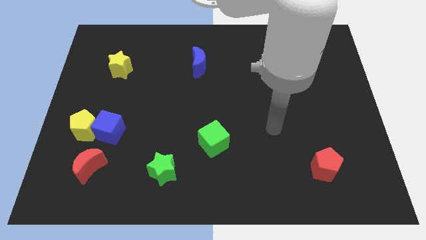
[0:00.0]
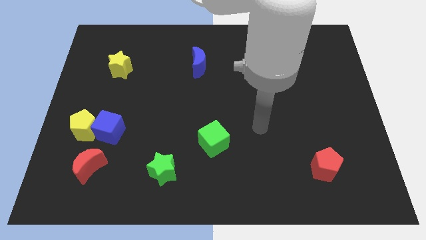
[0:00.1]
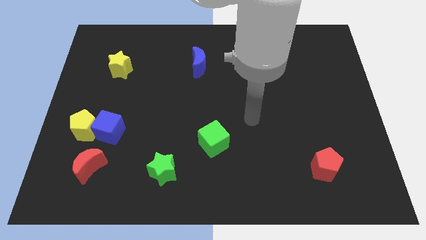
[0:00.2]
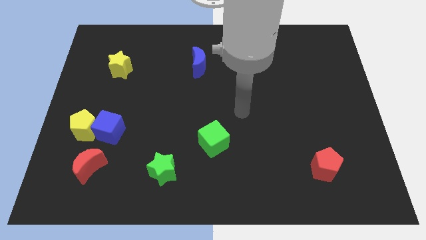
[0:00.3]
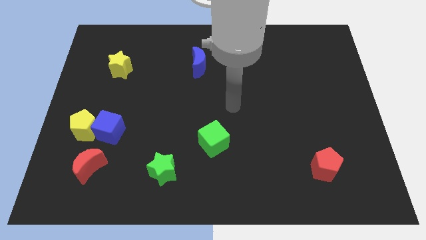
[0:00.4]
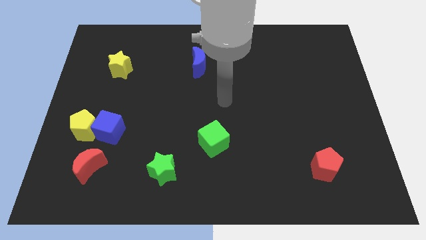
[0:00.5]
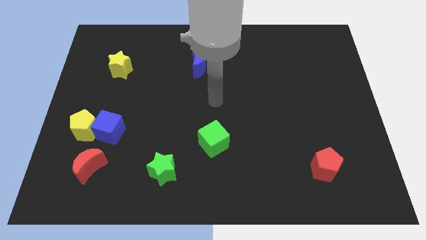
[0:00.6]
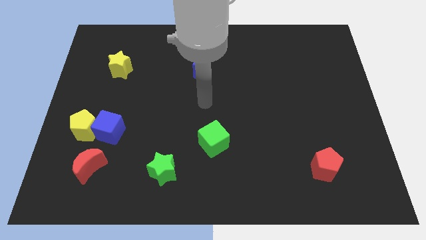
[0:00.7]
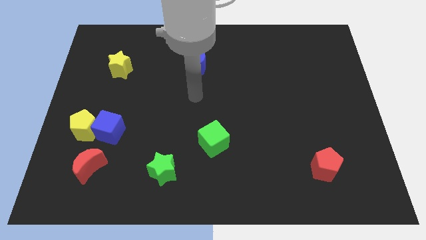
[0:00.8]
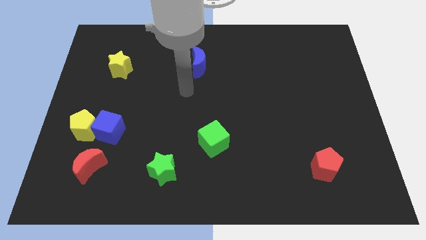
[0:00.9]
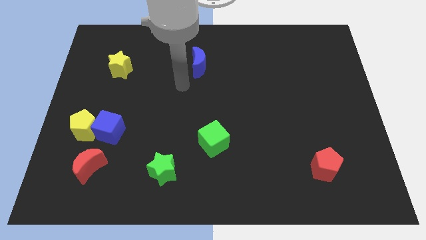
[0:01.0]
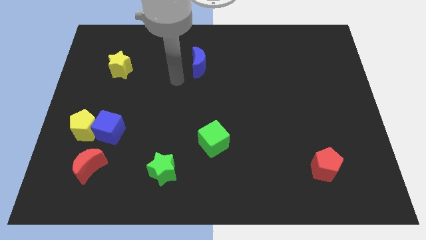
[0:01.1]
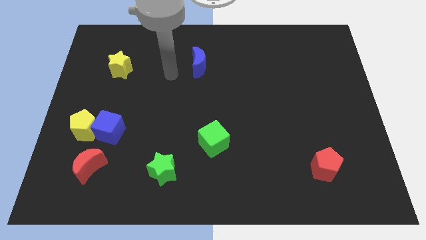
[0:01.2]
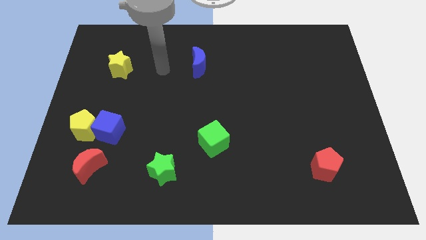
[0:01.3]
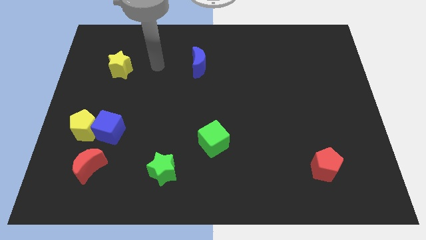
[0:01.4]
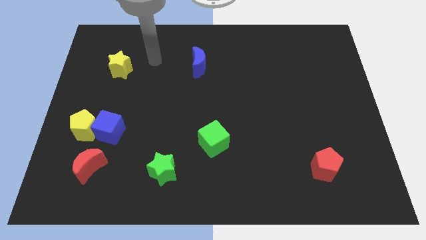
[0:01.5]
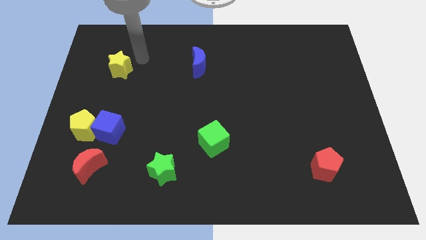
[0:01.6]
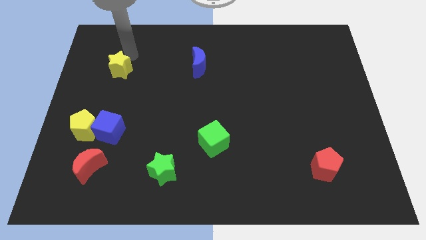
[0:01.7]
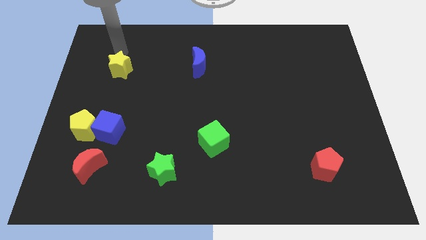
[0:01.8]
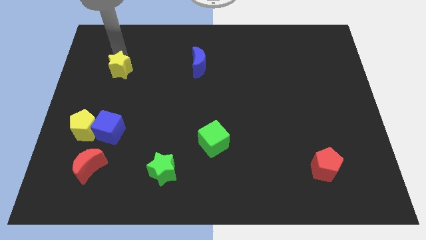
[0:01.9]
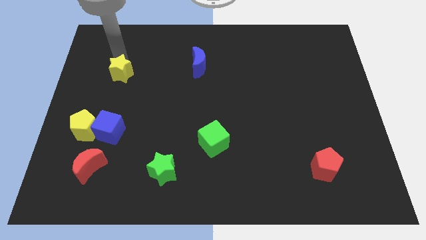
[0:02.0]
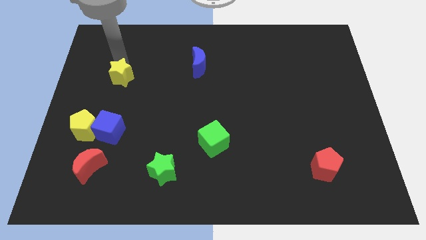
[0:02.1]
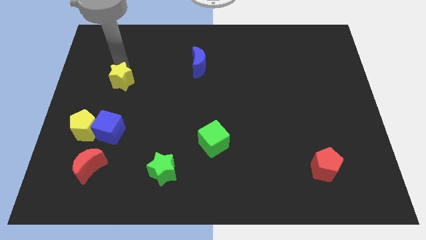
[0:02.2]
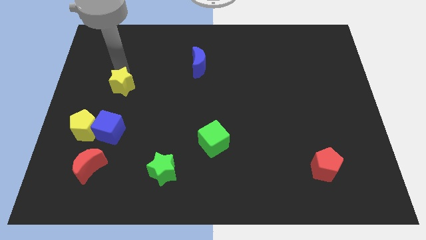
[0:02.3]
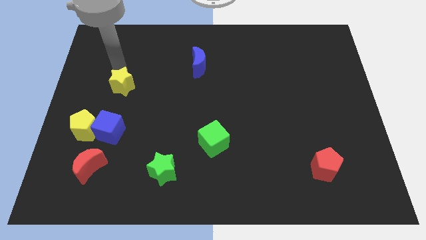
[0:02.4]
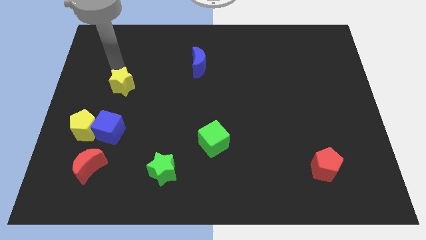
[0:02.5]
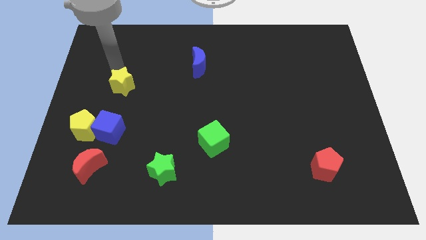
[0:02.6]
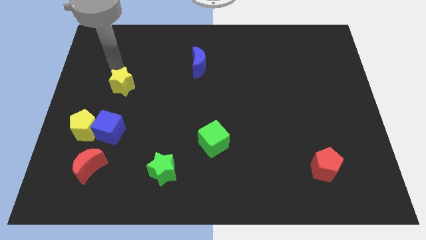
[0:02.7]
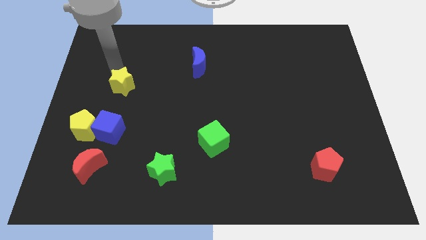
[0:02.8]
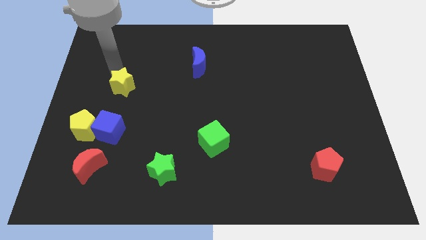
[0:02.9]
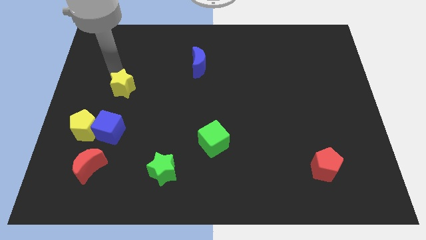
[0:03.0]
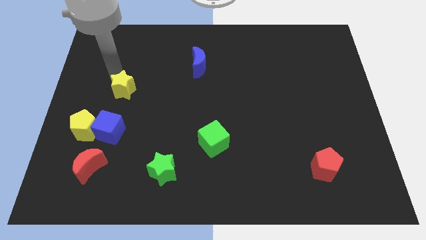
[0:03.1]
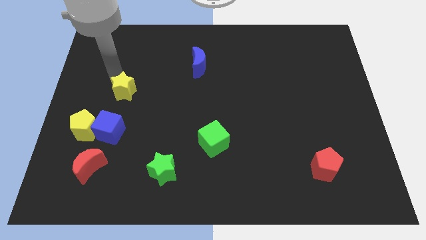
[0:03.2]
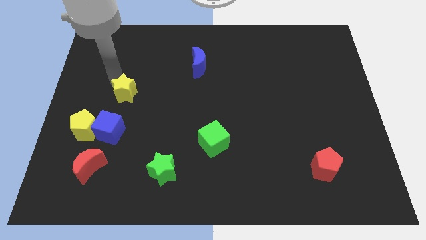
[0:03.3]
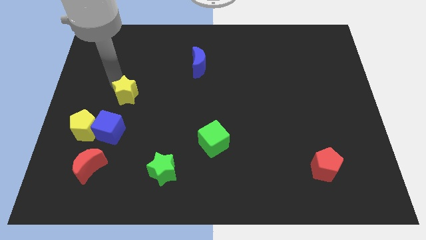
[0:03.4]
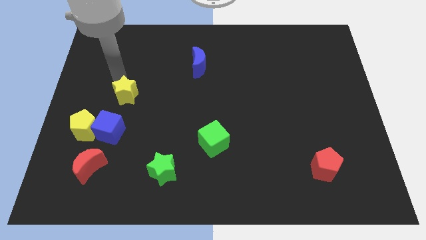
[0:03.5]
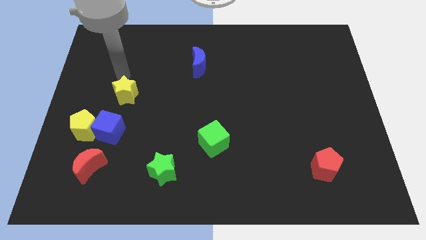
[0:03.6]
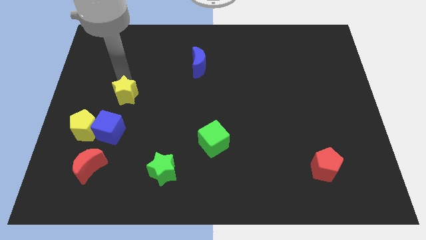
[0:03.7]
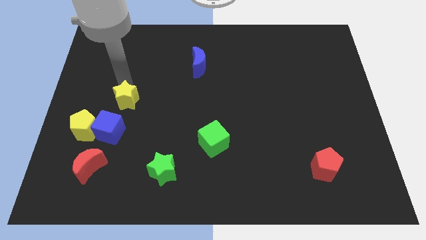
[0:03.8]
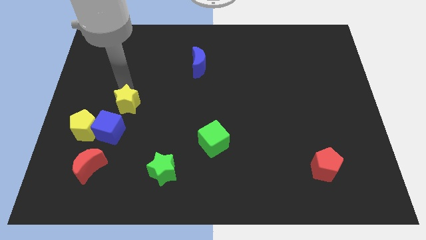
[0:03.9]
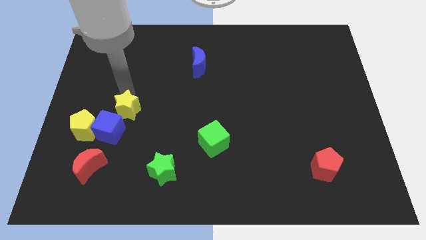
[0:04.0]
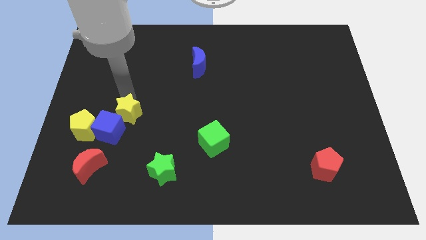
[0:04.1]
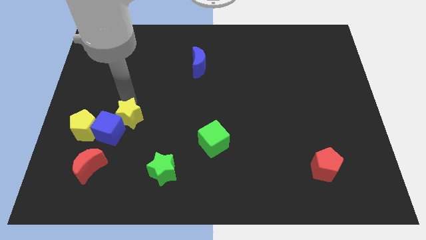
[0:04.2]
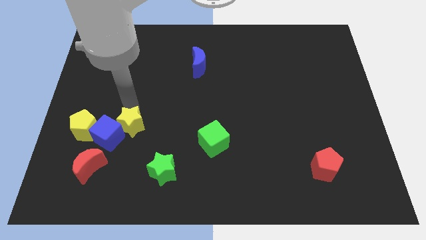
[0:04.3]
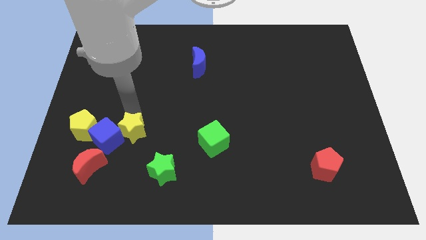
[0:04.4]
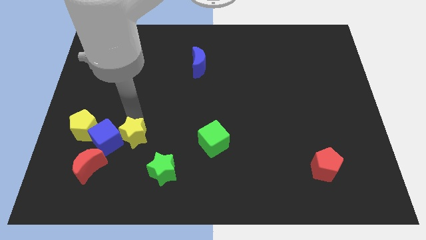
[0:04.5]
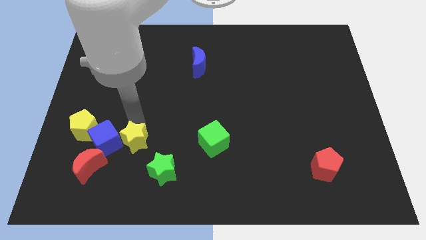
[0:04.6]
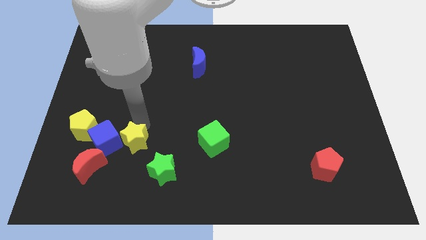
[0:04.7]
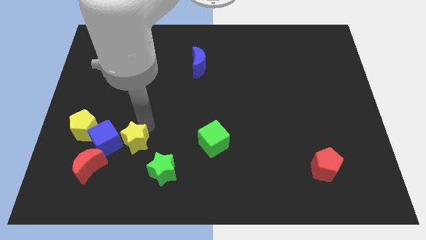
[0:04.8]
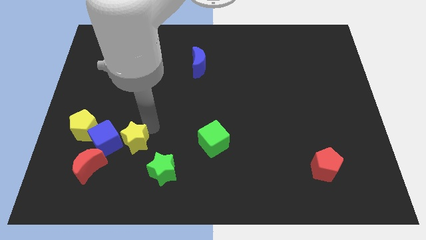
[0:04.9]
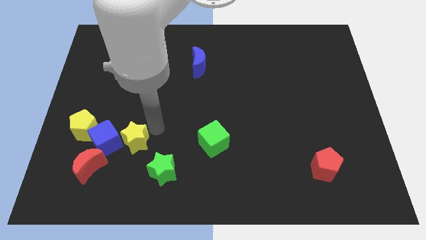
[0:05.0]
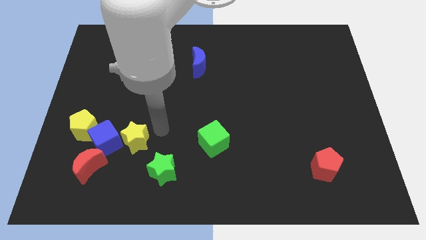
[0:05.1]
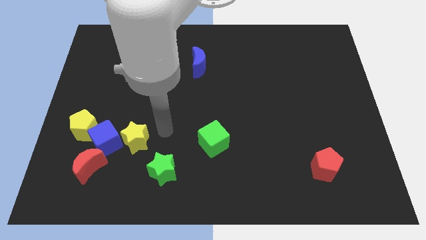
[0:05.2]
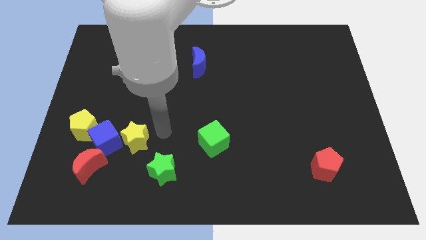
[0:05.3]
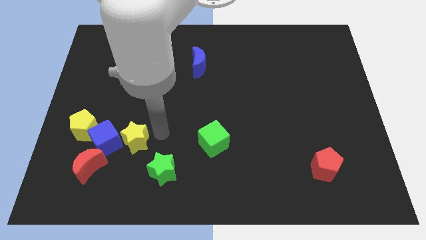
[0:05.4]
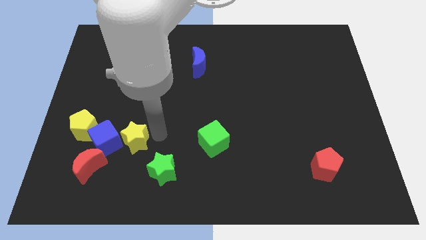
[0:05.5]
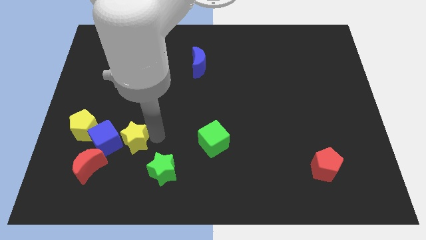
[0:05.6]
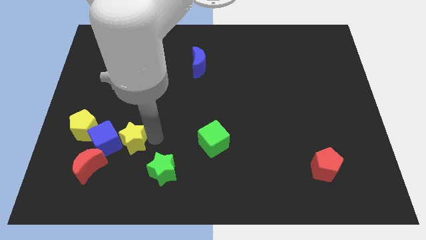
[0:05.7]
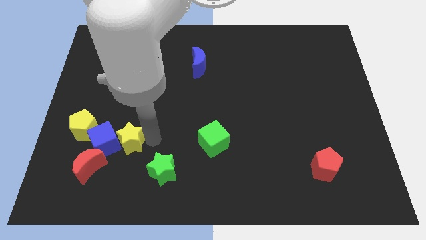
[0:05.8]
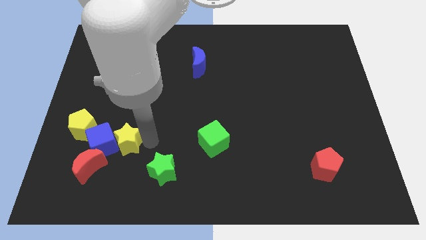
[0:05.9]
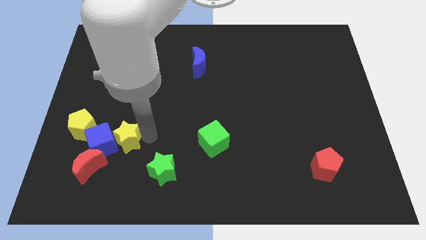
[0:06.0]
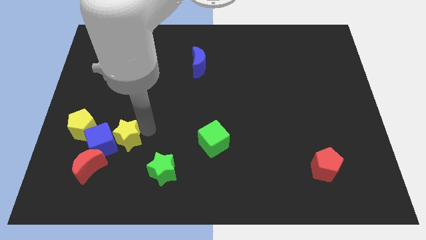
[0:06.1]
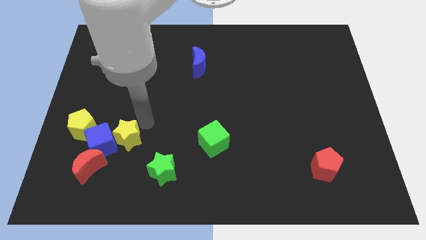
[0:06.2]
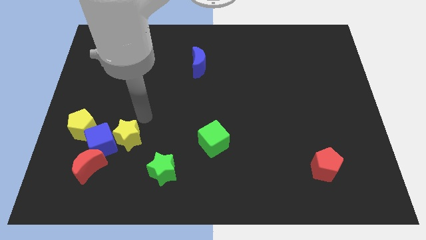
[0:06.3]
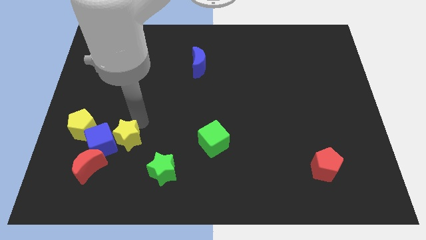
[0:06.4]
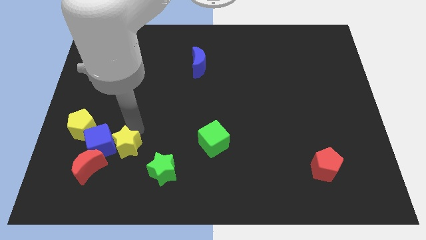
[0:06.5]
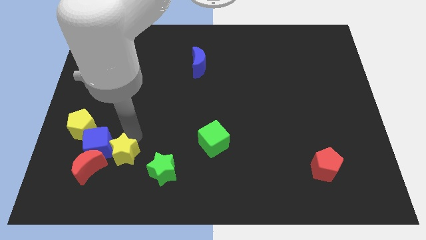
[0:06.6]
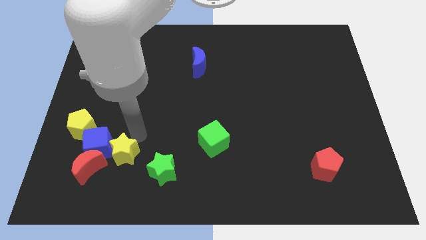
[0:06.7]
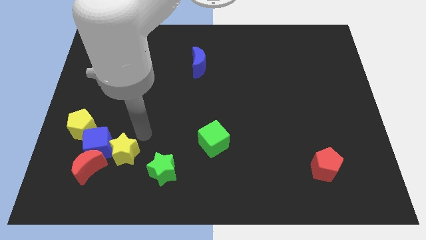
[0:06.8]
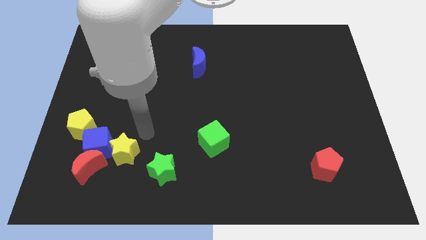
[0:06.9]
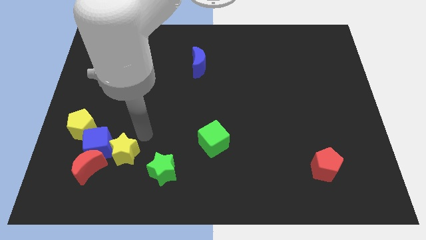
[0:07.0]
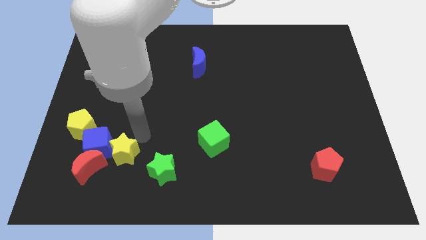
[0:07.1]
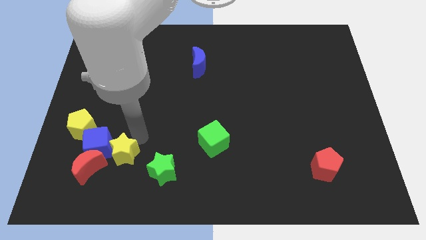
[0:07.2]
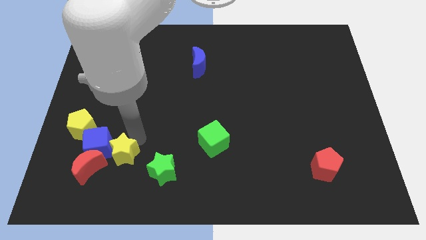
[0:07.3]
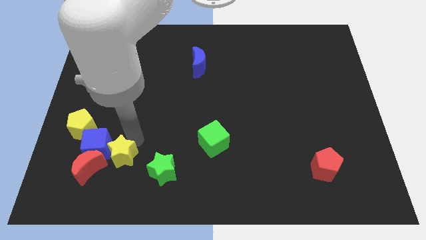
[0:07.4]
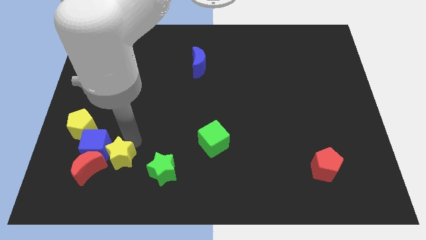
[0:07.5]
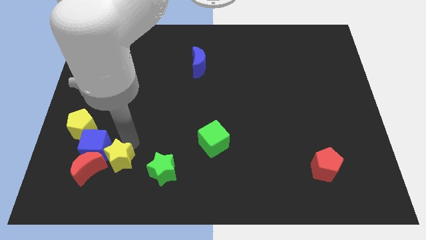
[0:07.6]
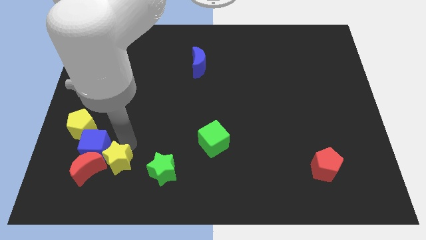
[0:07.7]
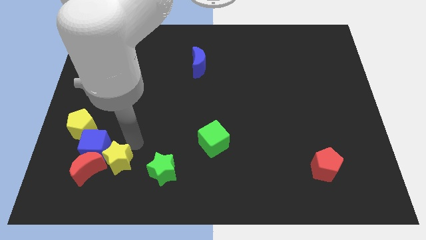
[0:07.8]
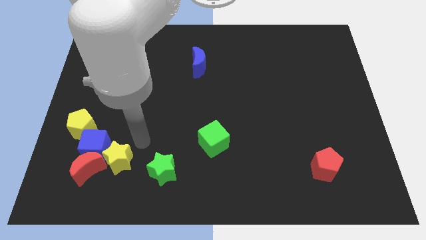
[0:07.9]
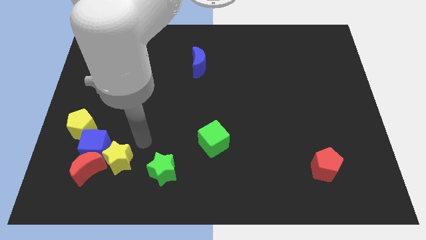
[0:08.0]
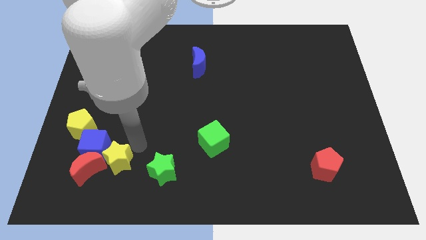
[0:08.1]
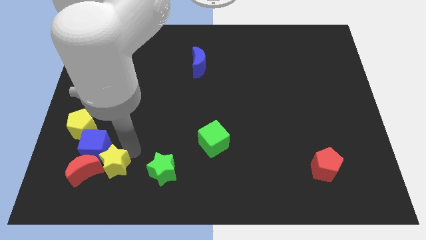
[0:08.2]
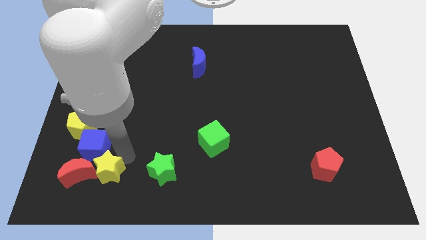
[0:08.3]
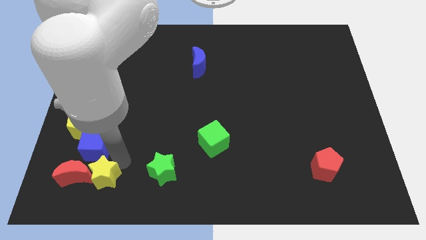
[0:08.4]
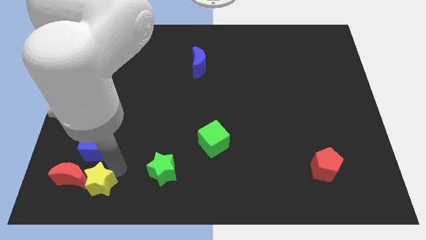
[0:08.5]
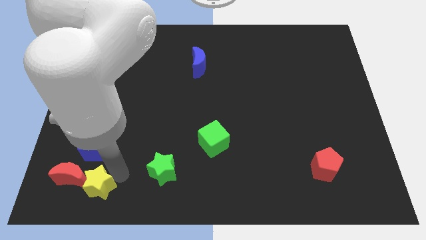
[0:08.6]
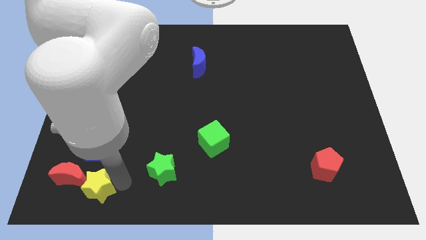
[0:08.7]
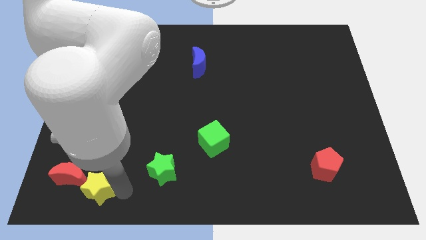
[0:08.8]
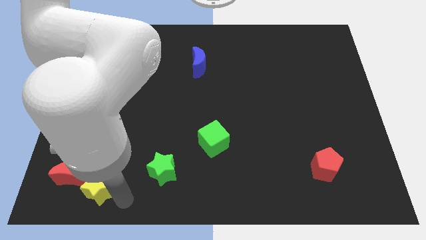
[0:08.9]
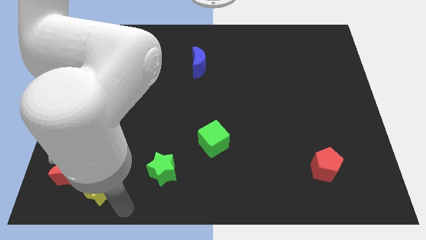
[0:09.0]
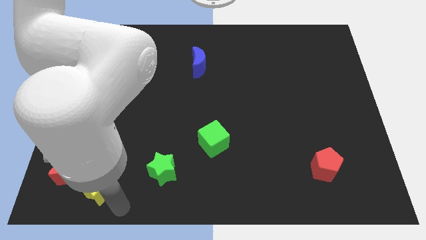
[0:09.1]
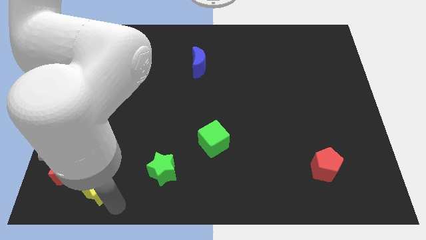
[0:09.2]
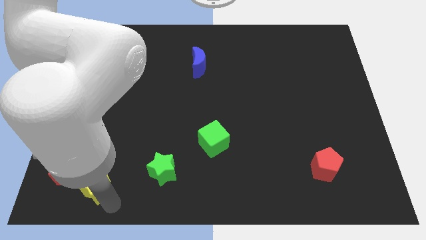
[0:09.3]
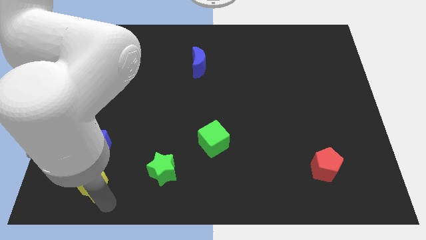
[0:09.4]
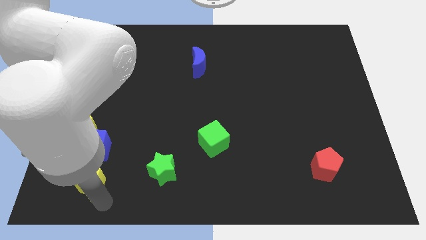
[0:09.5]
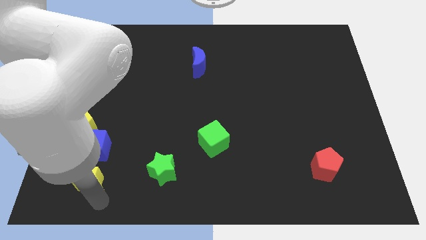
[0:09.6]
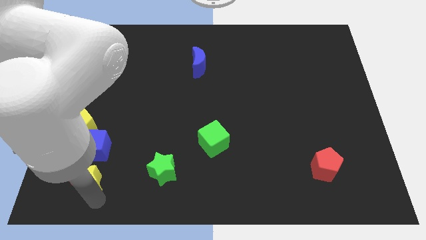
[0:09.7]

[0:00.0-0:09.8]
move the yellow star to the bottom of the yellow pentagon
